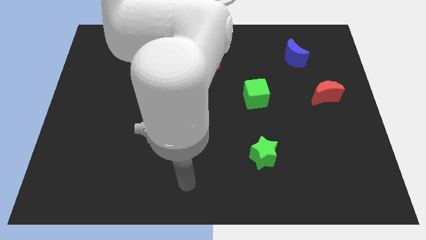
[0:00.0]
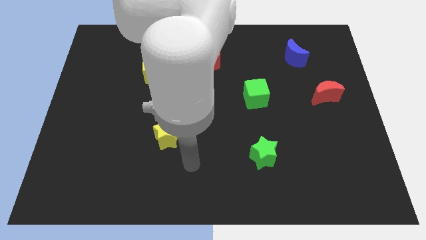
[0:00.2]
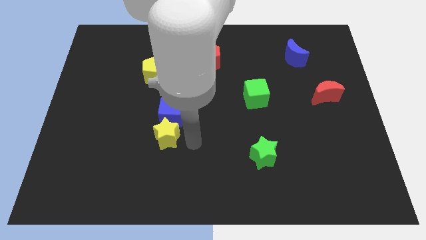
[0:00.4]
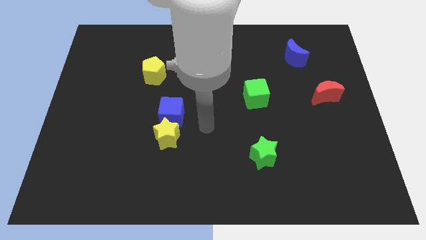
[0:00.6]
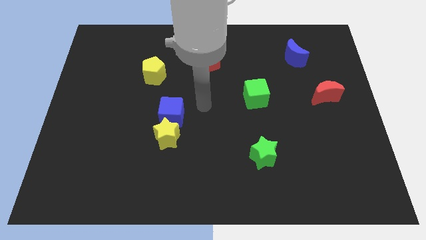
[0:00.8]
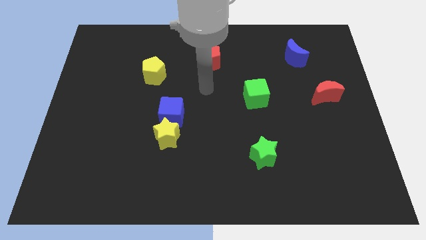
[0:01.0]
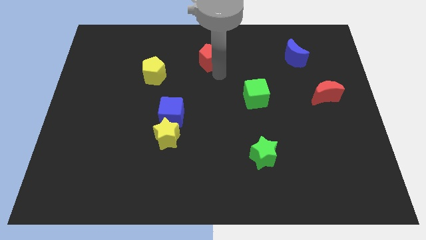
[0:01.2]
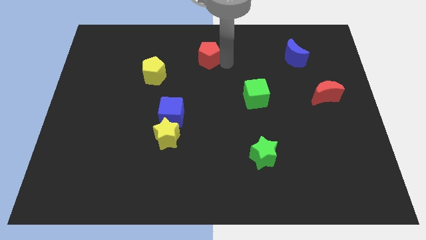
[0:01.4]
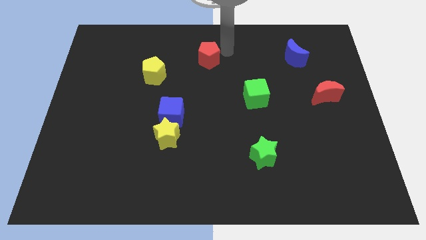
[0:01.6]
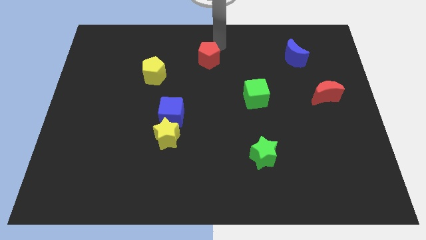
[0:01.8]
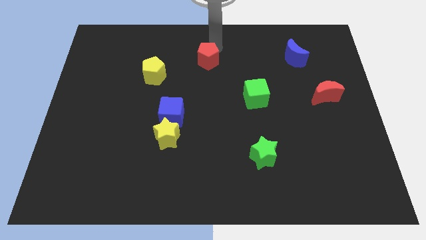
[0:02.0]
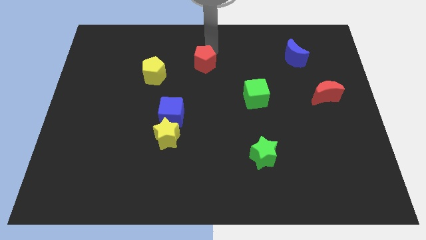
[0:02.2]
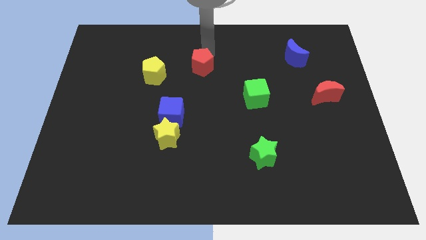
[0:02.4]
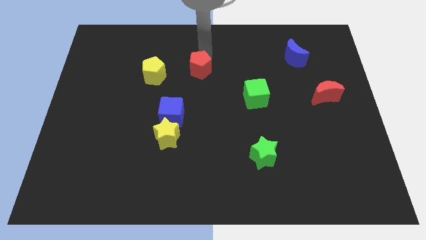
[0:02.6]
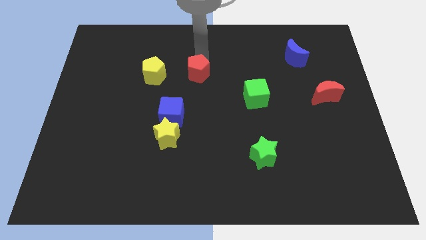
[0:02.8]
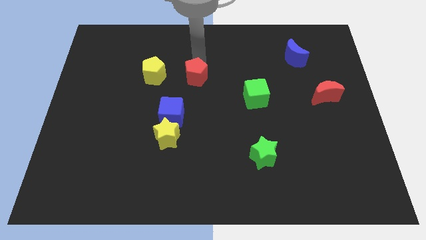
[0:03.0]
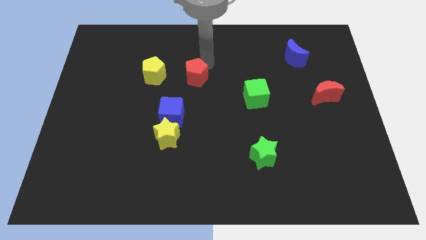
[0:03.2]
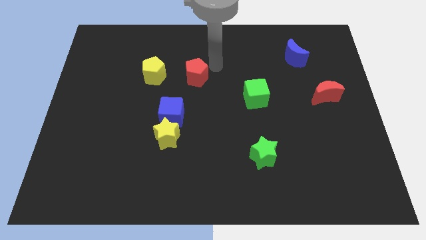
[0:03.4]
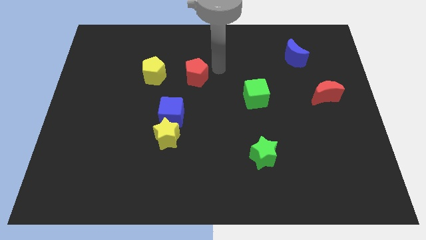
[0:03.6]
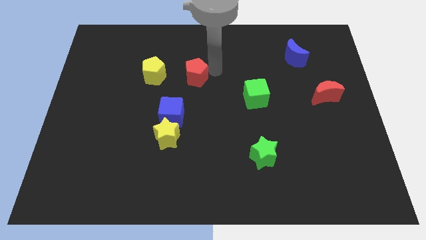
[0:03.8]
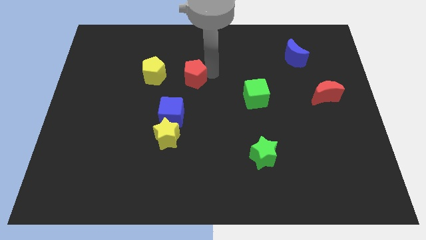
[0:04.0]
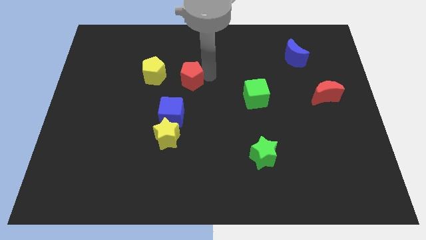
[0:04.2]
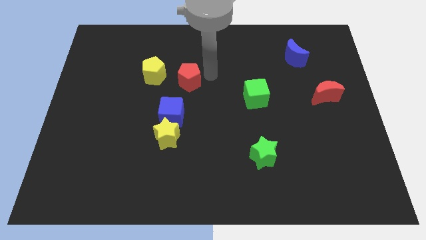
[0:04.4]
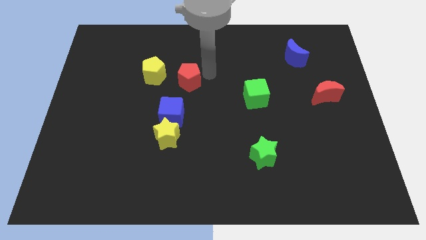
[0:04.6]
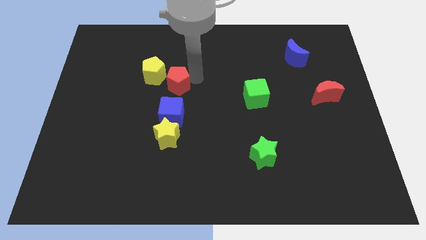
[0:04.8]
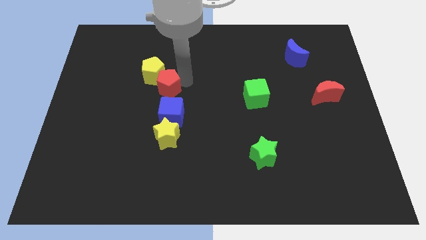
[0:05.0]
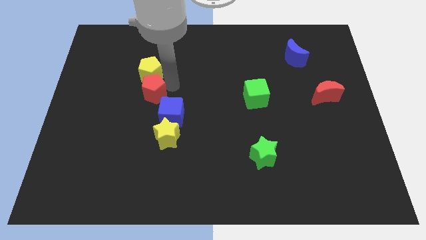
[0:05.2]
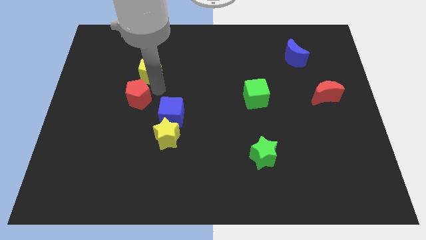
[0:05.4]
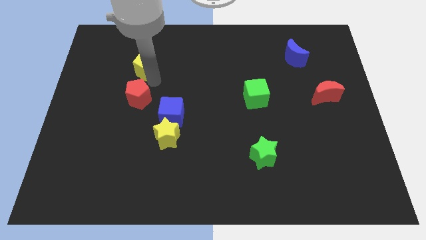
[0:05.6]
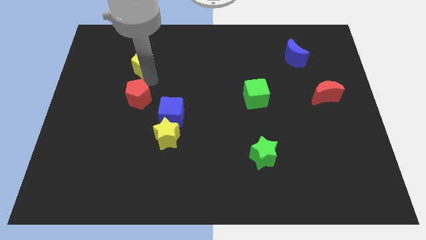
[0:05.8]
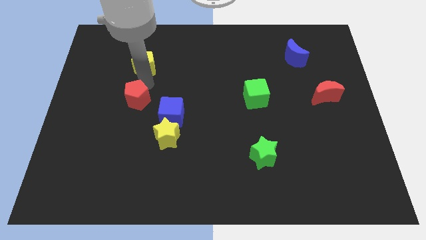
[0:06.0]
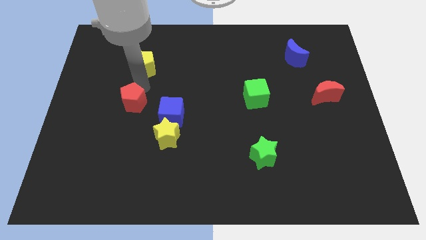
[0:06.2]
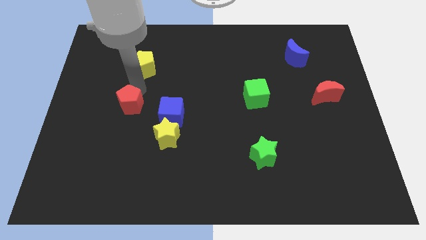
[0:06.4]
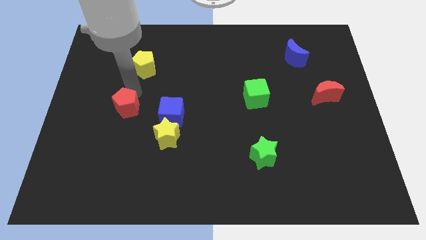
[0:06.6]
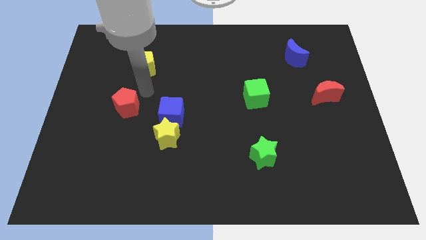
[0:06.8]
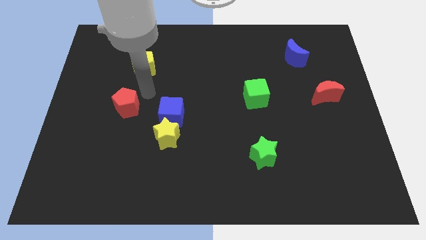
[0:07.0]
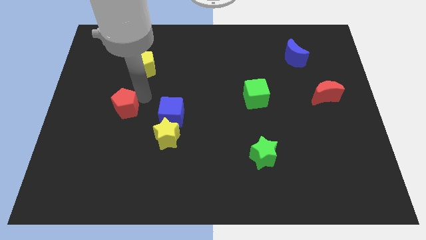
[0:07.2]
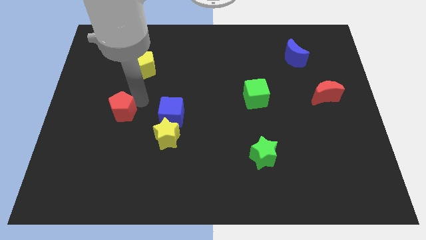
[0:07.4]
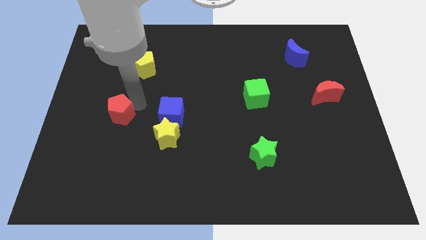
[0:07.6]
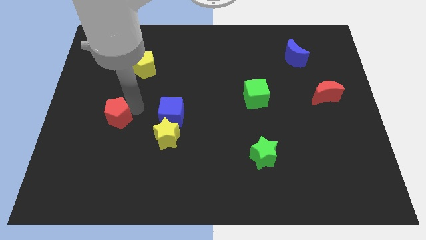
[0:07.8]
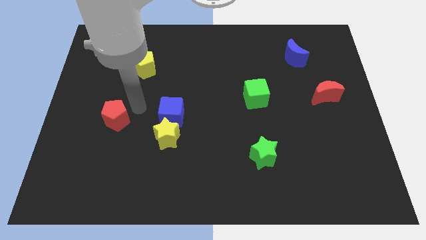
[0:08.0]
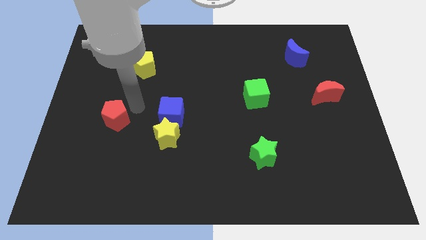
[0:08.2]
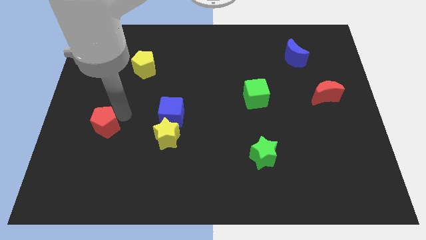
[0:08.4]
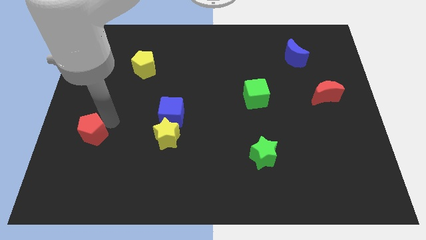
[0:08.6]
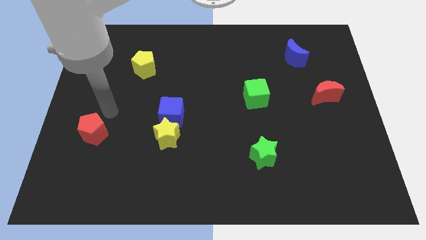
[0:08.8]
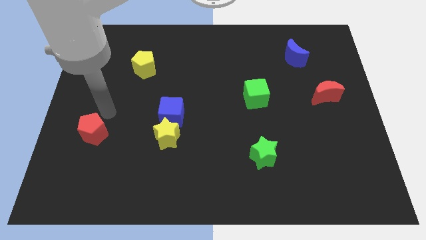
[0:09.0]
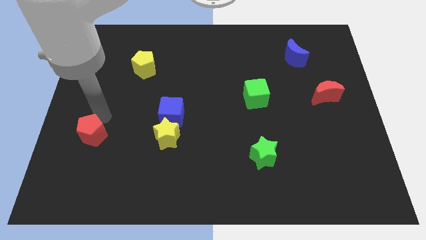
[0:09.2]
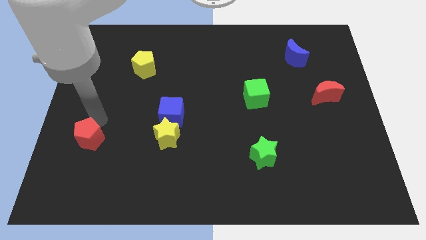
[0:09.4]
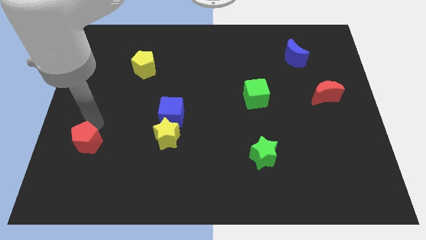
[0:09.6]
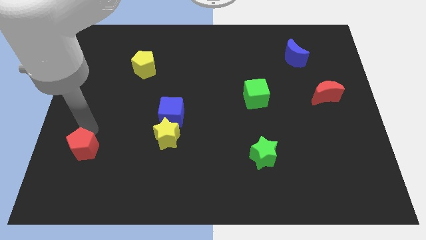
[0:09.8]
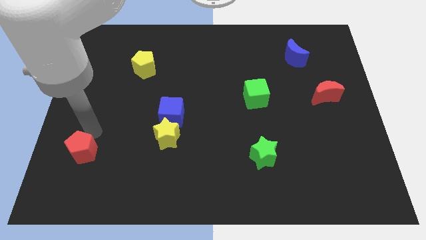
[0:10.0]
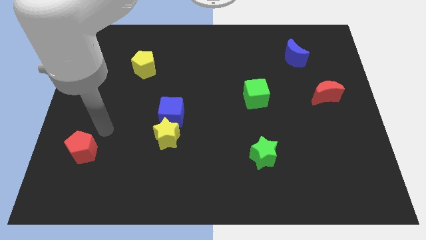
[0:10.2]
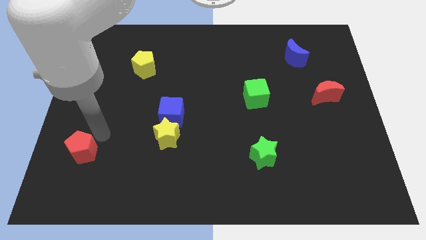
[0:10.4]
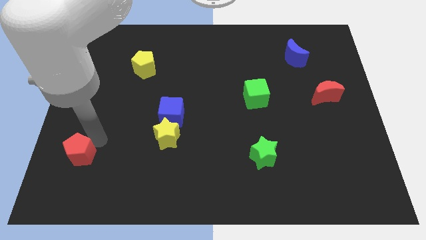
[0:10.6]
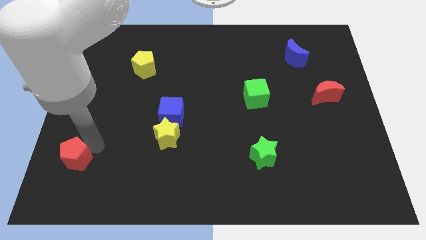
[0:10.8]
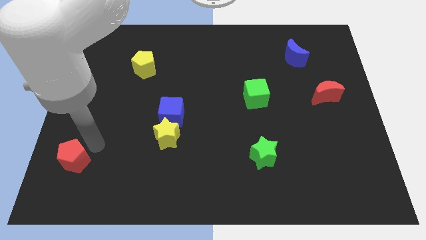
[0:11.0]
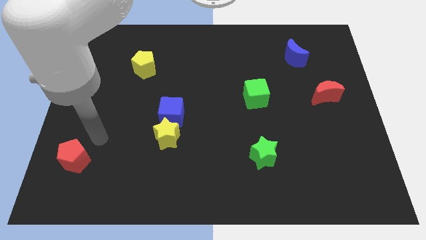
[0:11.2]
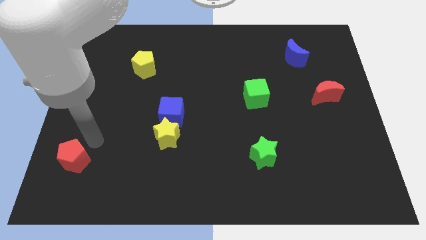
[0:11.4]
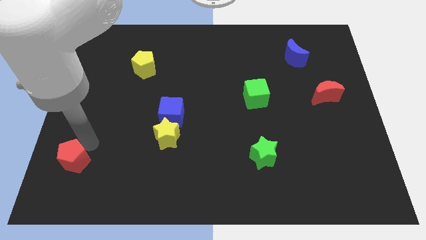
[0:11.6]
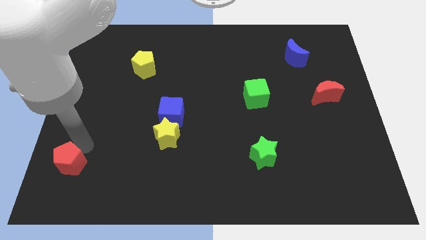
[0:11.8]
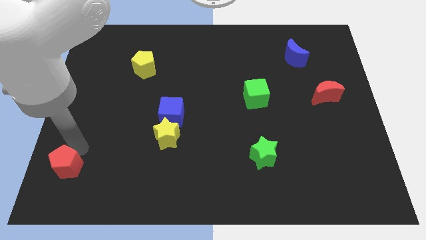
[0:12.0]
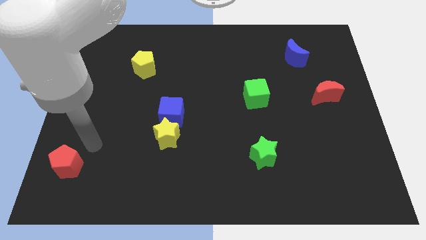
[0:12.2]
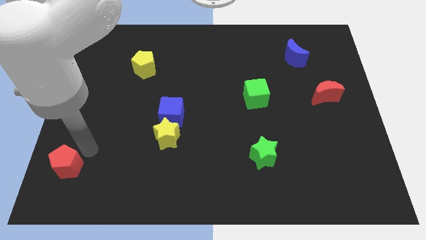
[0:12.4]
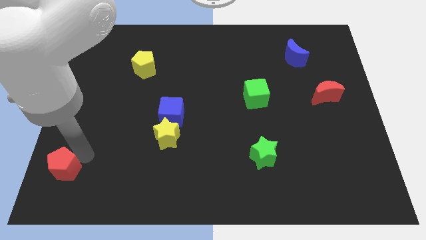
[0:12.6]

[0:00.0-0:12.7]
put the red pentagon to the bottom left
